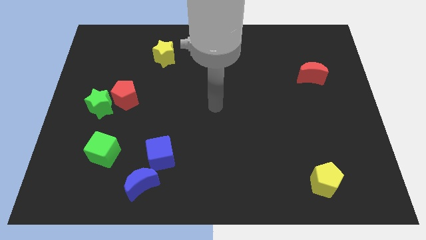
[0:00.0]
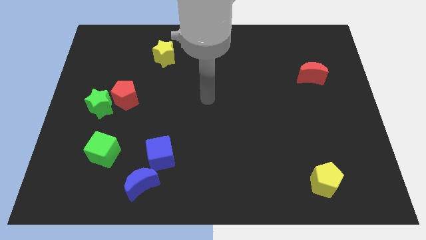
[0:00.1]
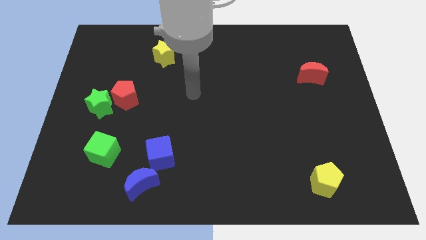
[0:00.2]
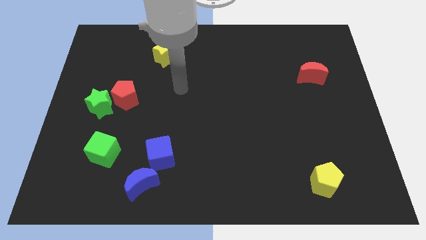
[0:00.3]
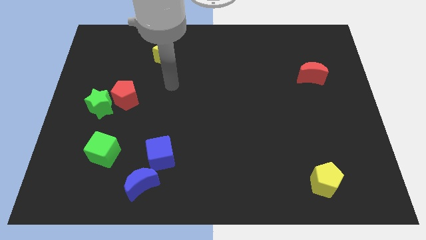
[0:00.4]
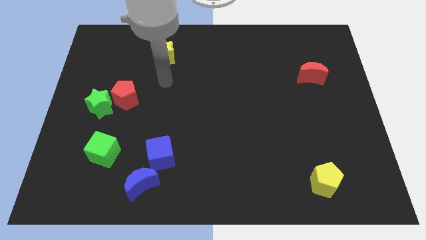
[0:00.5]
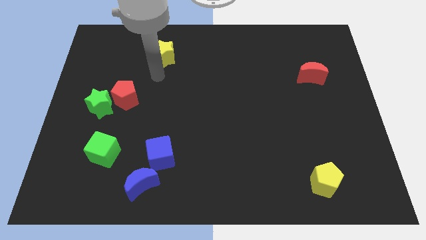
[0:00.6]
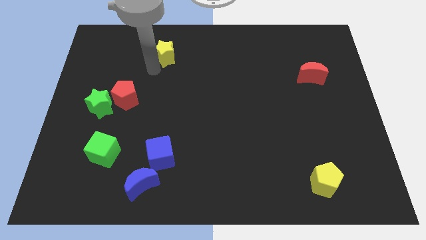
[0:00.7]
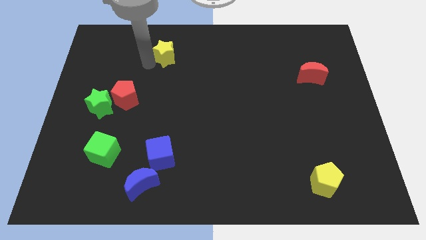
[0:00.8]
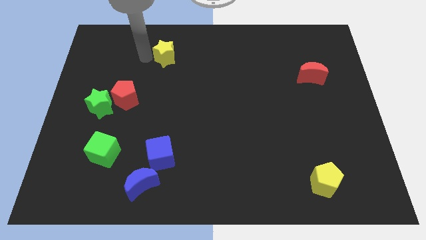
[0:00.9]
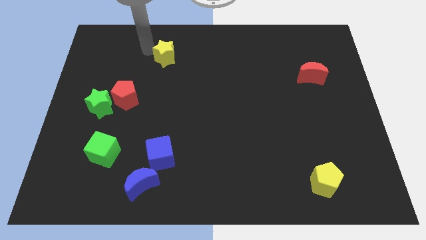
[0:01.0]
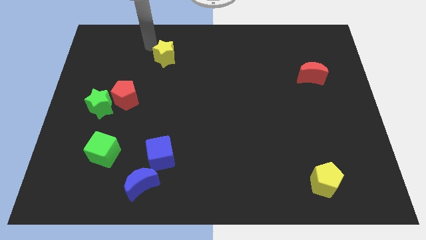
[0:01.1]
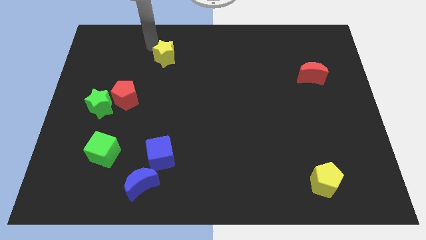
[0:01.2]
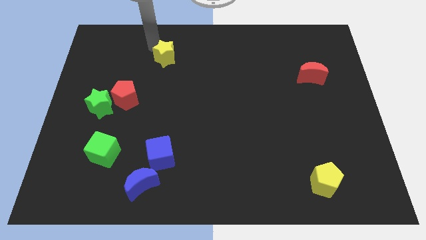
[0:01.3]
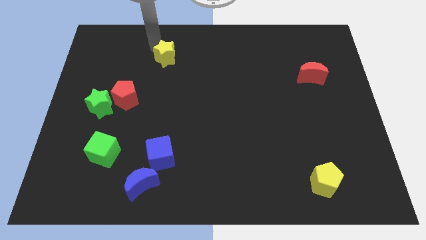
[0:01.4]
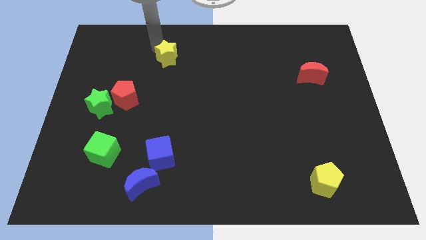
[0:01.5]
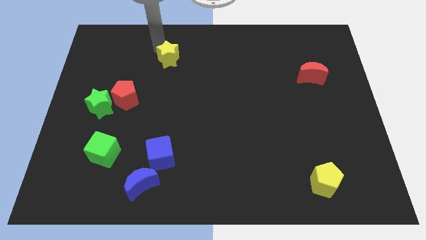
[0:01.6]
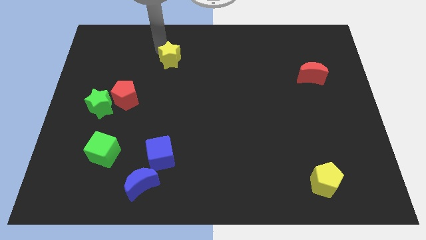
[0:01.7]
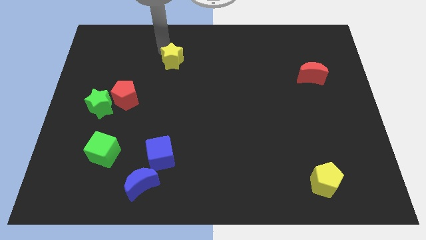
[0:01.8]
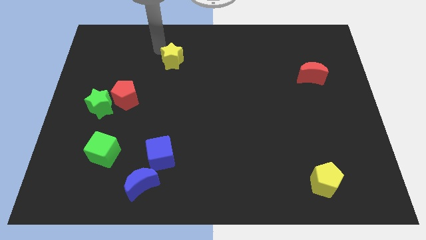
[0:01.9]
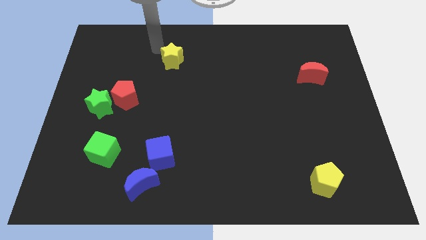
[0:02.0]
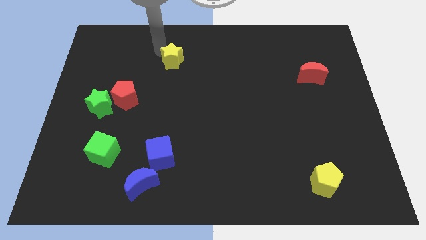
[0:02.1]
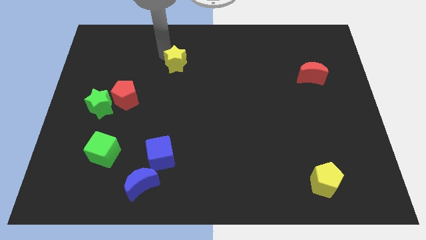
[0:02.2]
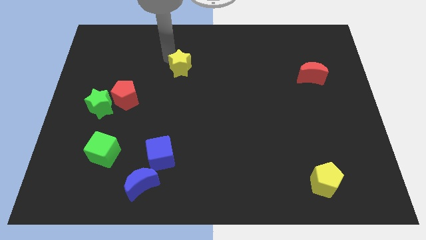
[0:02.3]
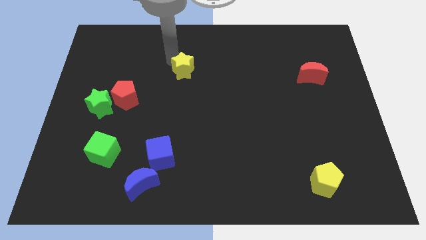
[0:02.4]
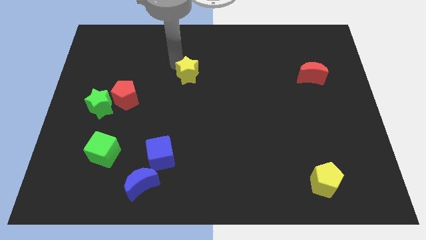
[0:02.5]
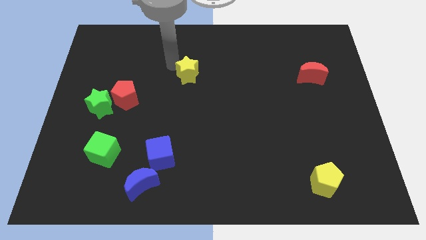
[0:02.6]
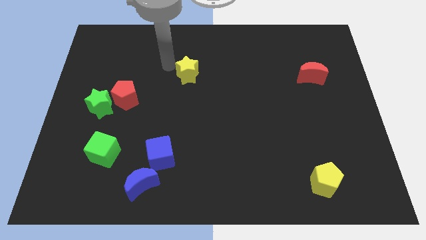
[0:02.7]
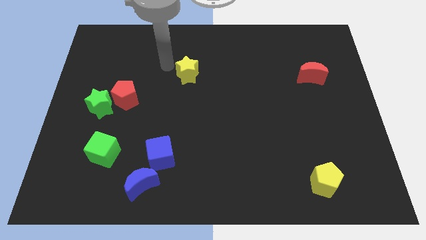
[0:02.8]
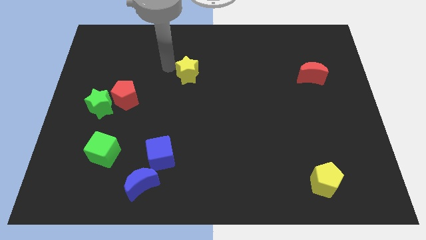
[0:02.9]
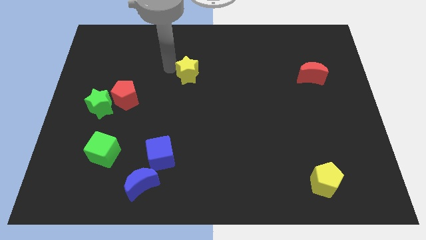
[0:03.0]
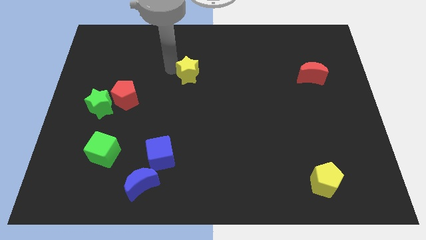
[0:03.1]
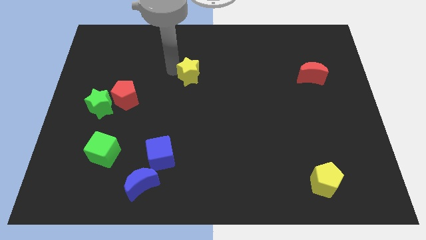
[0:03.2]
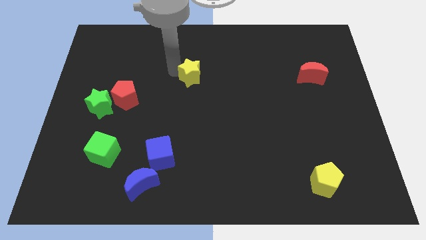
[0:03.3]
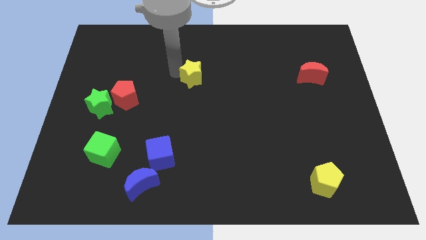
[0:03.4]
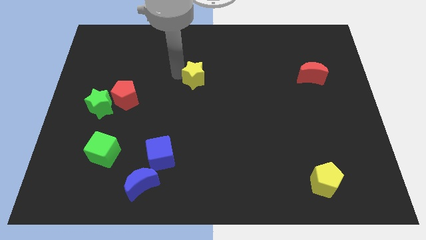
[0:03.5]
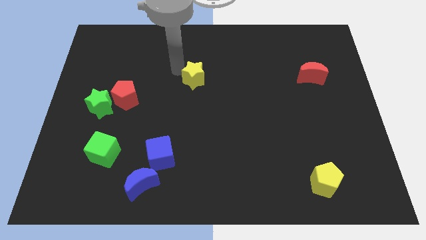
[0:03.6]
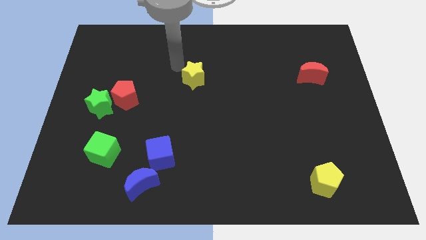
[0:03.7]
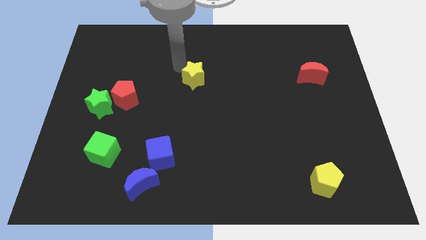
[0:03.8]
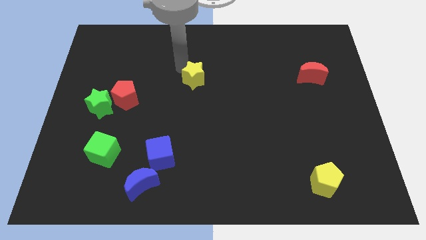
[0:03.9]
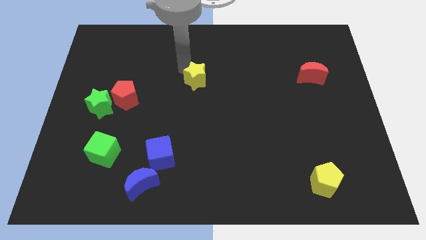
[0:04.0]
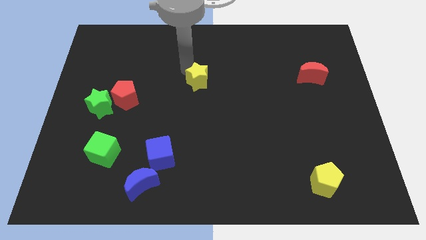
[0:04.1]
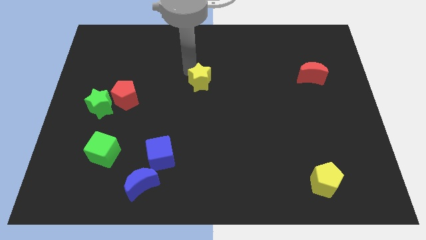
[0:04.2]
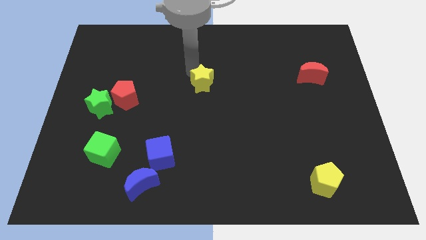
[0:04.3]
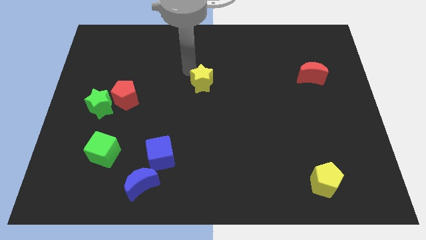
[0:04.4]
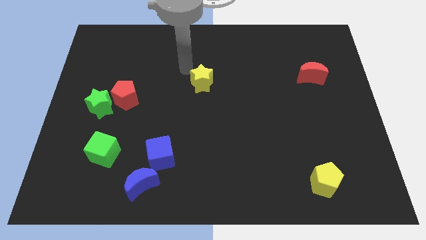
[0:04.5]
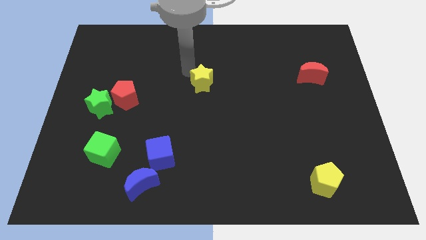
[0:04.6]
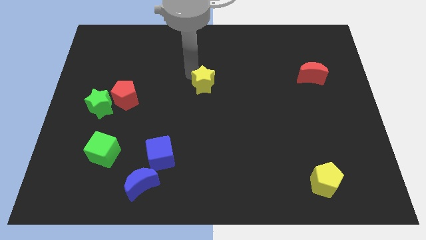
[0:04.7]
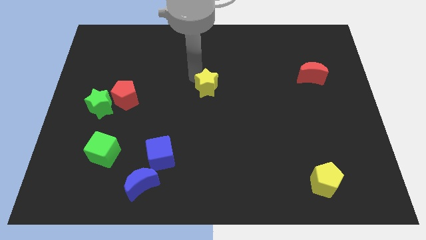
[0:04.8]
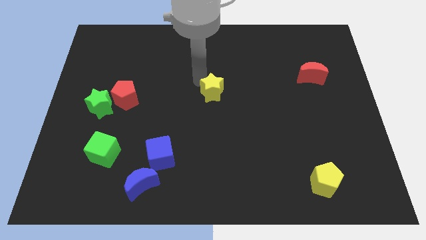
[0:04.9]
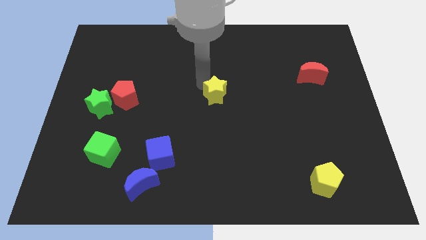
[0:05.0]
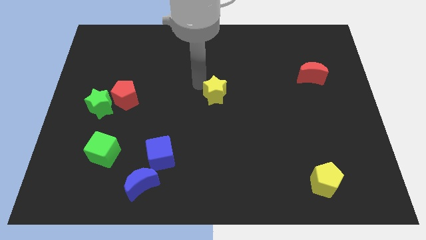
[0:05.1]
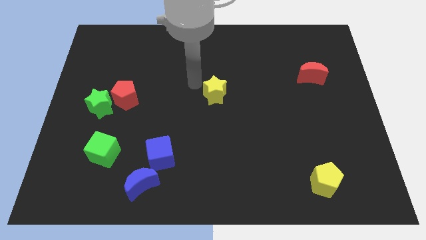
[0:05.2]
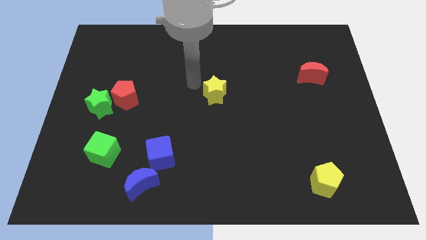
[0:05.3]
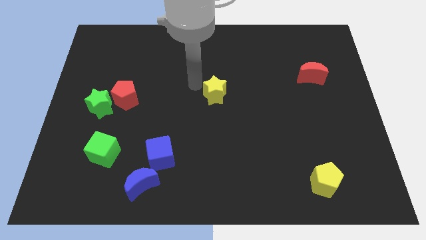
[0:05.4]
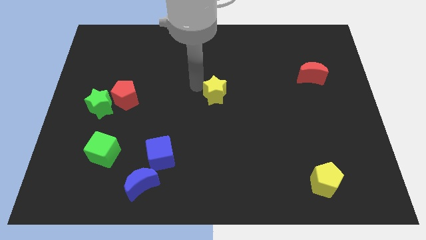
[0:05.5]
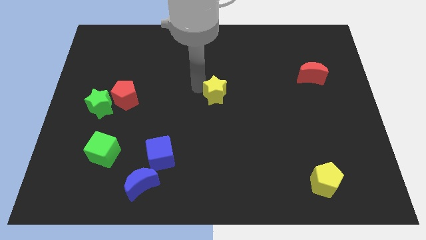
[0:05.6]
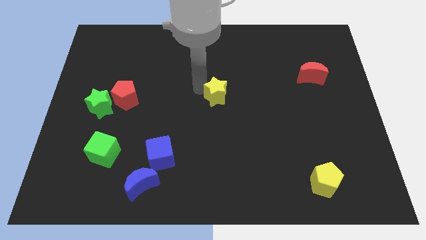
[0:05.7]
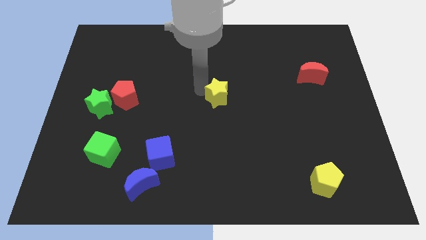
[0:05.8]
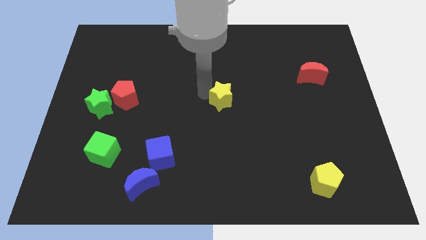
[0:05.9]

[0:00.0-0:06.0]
slide the yellow star down and then to the right

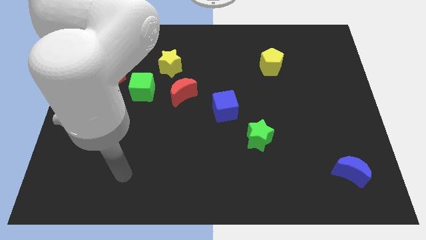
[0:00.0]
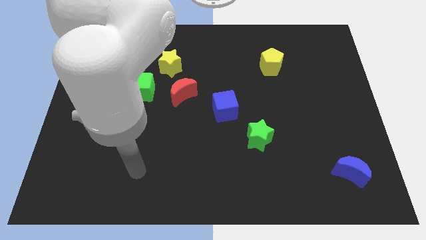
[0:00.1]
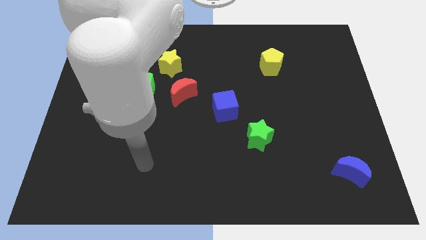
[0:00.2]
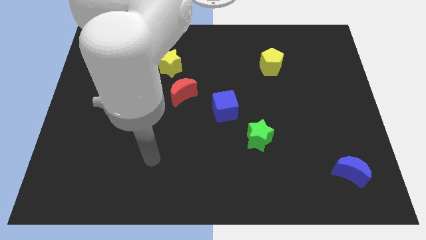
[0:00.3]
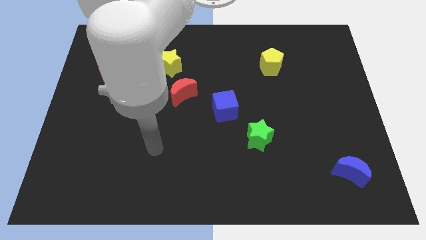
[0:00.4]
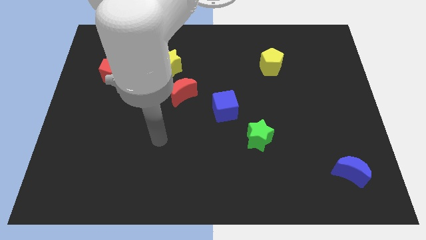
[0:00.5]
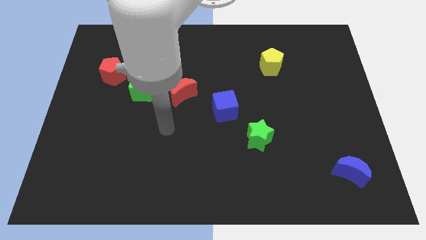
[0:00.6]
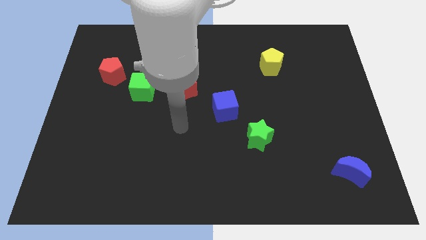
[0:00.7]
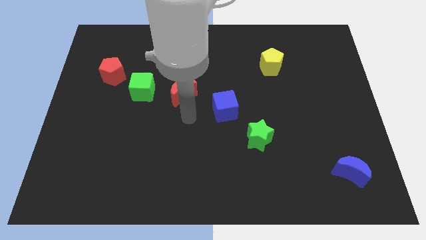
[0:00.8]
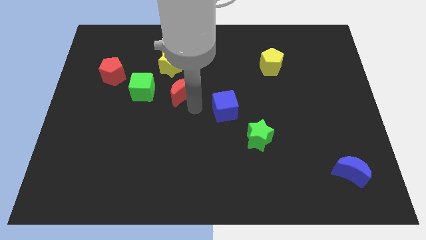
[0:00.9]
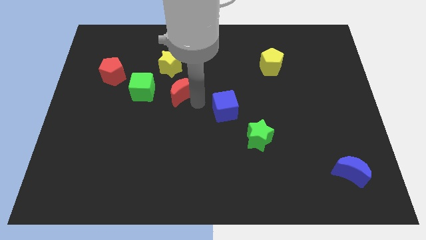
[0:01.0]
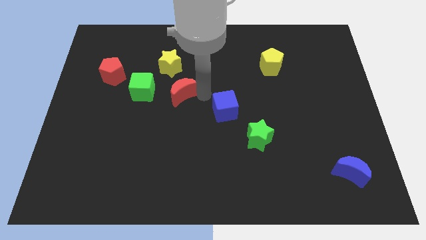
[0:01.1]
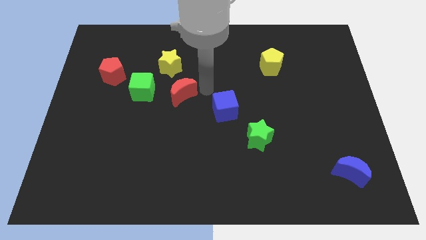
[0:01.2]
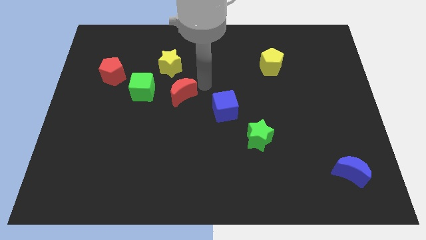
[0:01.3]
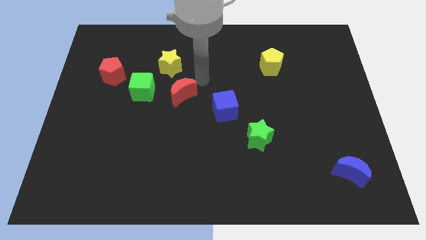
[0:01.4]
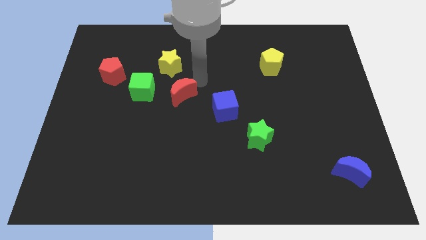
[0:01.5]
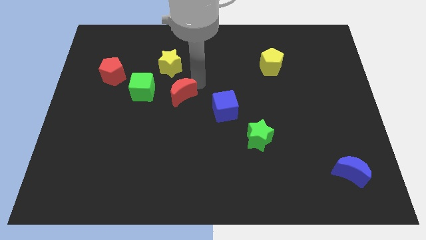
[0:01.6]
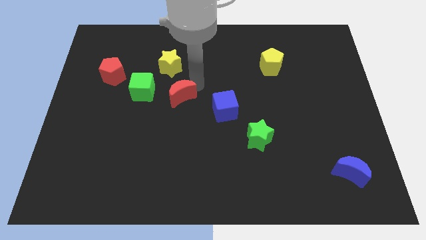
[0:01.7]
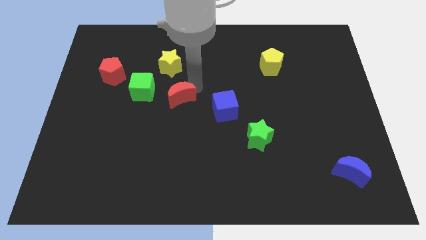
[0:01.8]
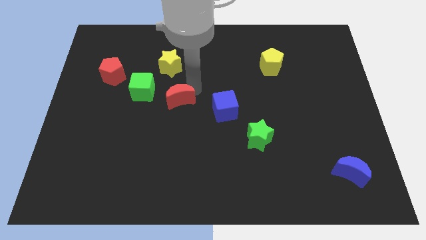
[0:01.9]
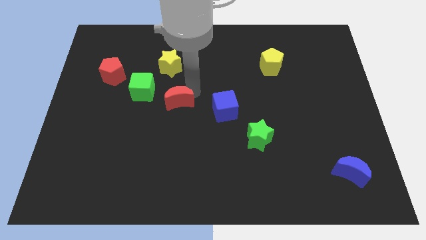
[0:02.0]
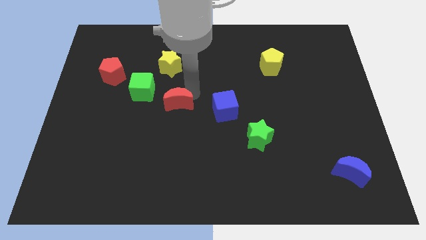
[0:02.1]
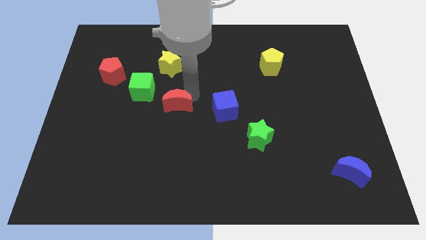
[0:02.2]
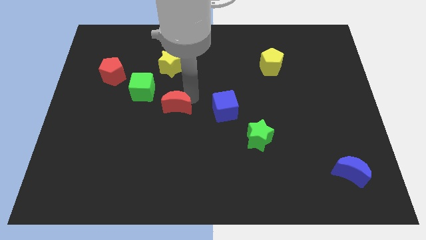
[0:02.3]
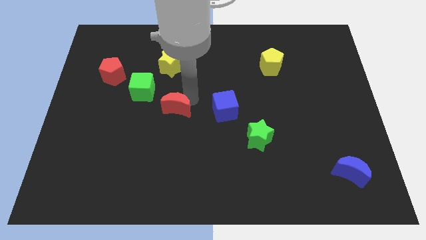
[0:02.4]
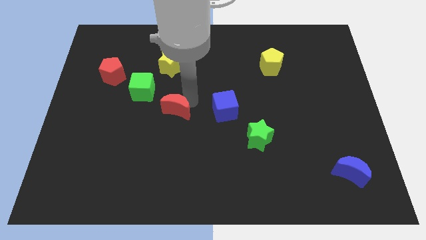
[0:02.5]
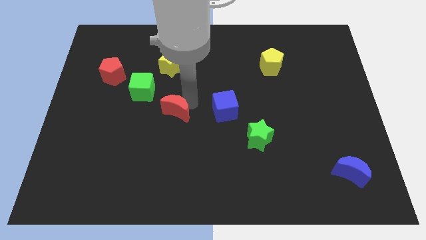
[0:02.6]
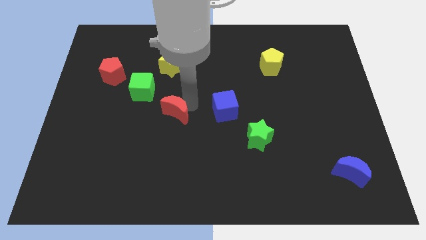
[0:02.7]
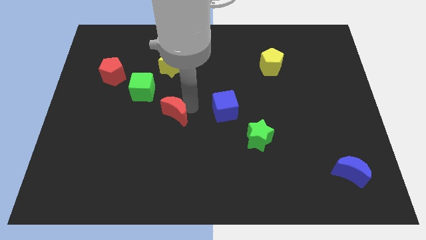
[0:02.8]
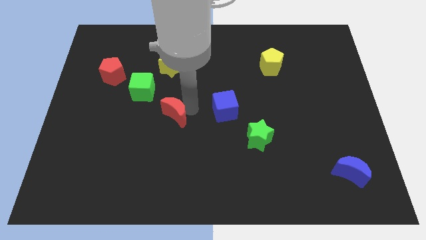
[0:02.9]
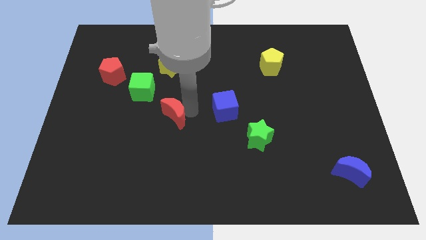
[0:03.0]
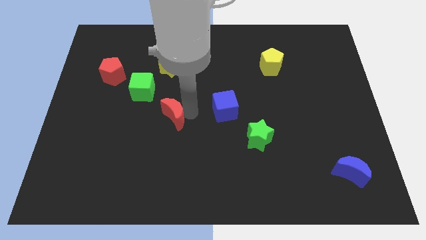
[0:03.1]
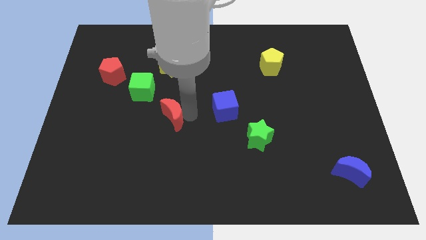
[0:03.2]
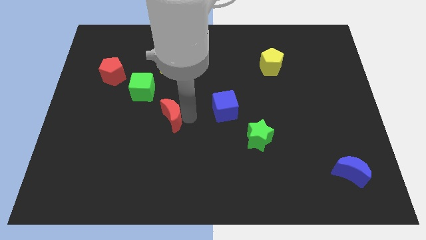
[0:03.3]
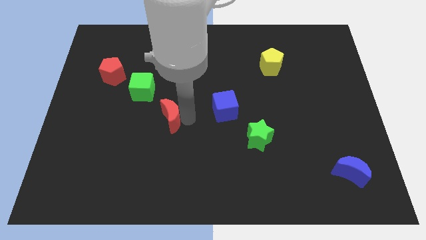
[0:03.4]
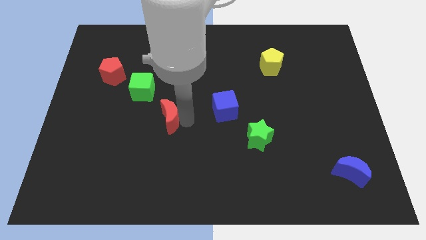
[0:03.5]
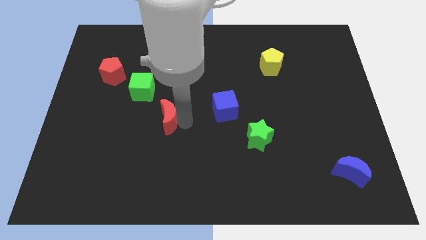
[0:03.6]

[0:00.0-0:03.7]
move the red moon a little bit downwards and left diagonally
